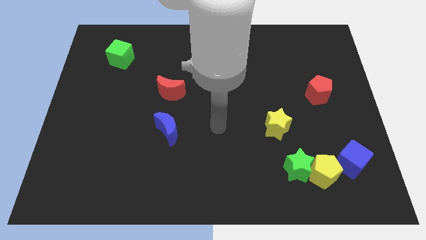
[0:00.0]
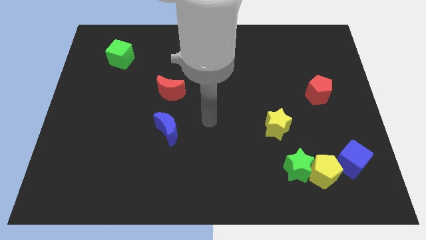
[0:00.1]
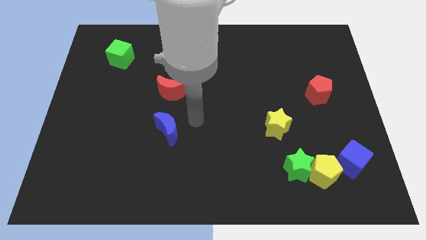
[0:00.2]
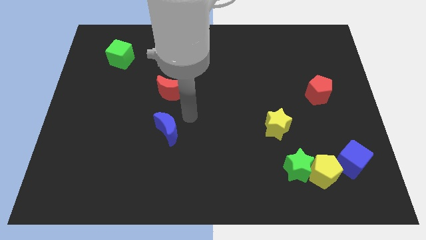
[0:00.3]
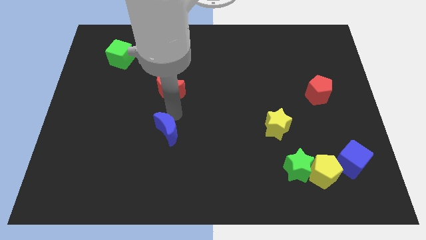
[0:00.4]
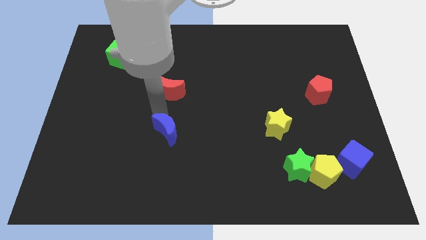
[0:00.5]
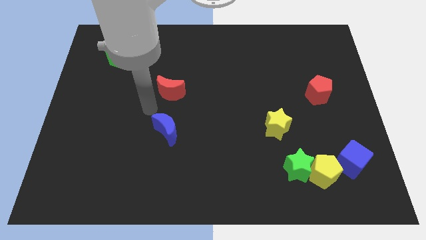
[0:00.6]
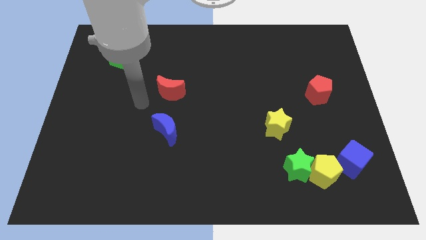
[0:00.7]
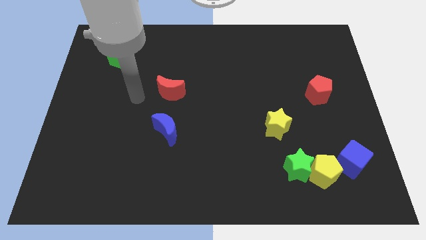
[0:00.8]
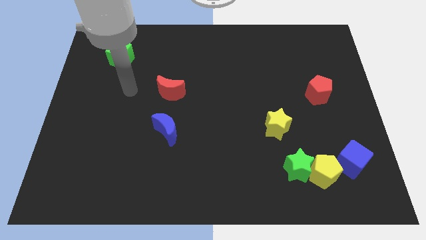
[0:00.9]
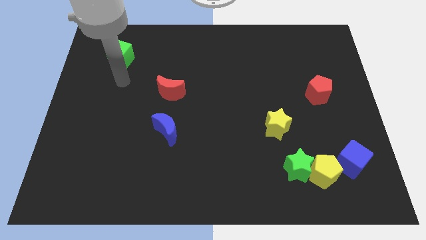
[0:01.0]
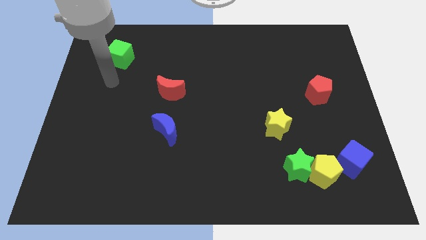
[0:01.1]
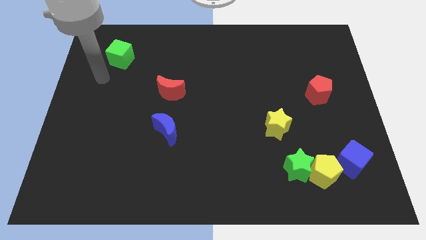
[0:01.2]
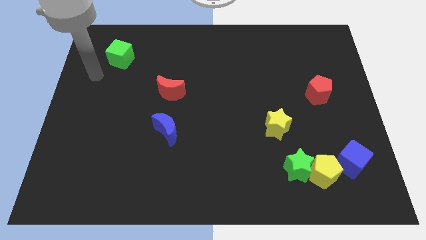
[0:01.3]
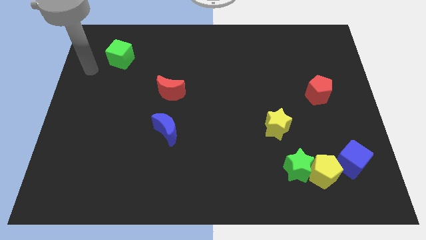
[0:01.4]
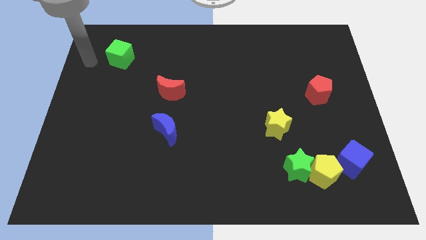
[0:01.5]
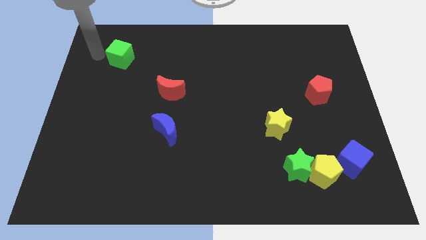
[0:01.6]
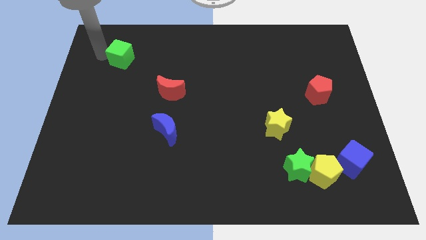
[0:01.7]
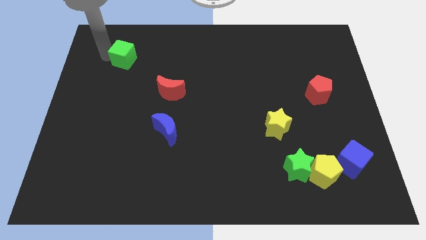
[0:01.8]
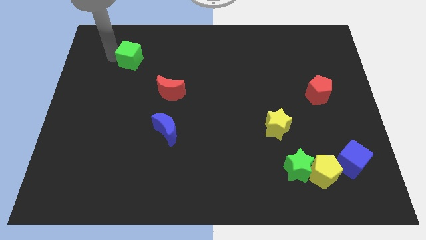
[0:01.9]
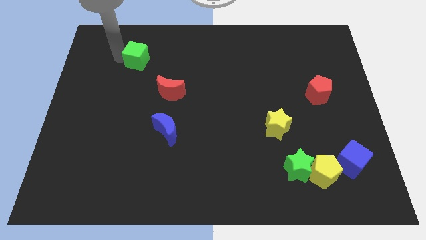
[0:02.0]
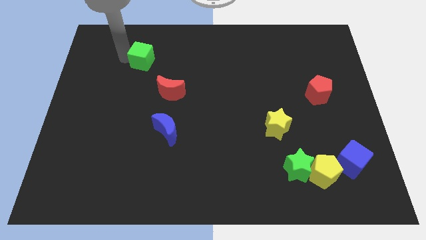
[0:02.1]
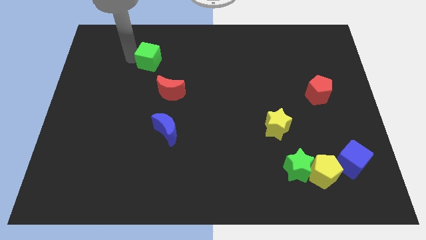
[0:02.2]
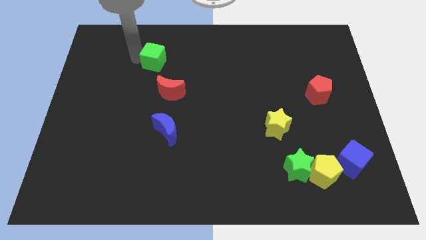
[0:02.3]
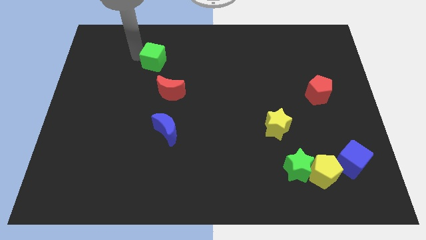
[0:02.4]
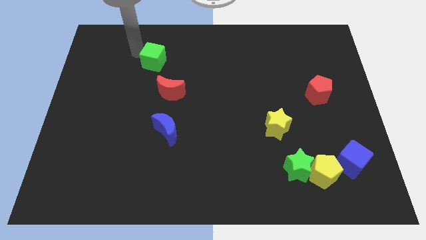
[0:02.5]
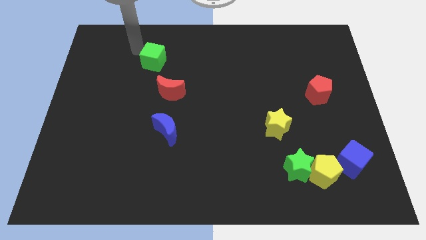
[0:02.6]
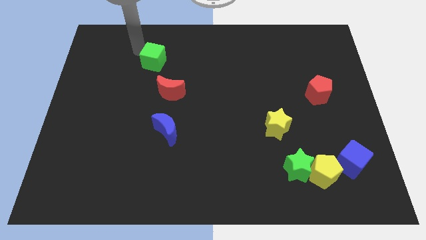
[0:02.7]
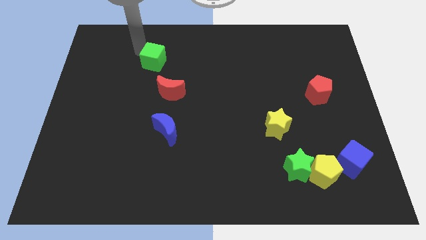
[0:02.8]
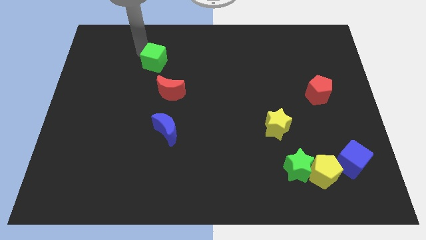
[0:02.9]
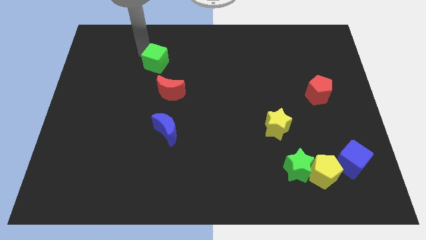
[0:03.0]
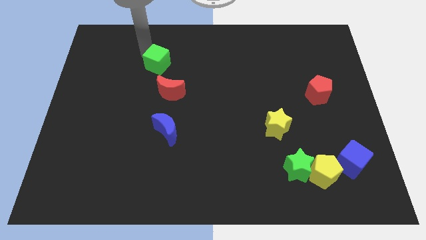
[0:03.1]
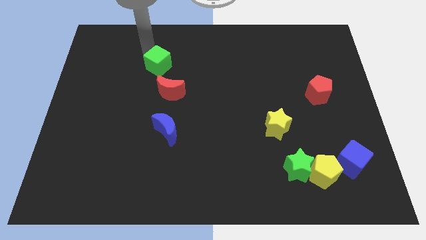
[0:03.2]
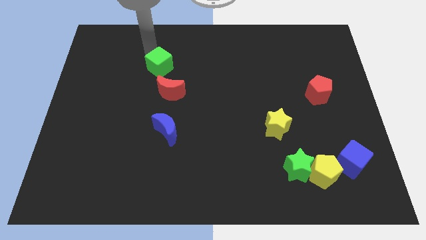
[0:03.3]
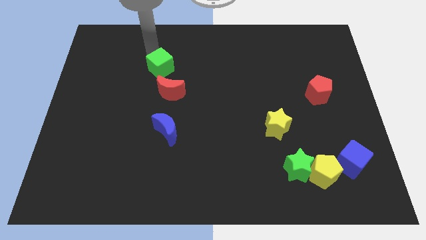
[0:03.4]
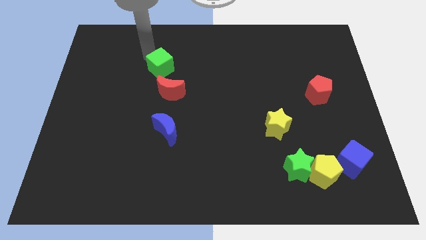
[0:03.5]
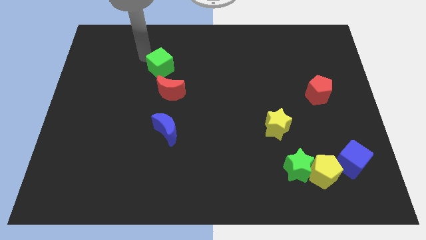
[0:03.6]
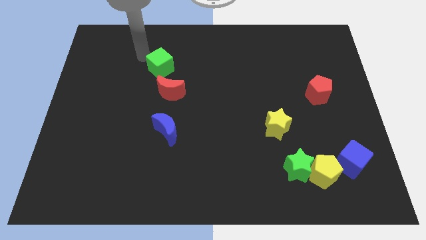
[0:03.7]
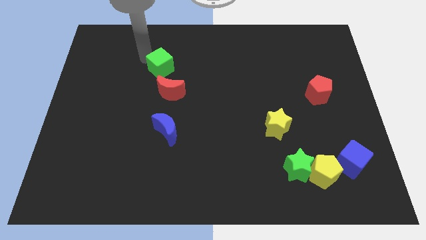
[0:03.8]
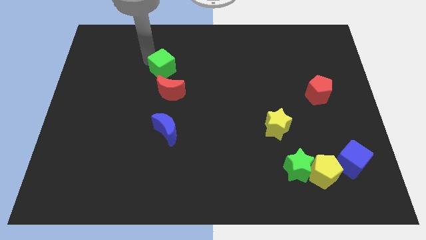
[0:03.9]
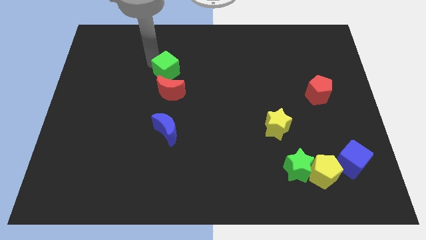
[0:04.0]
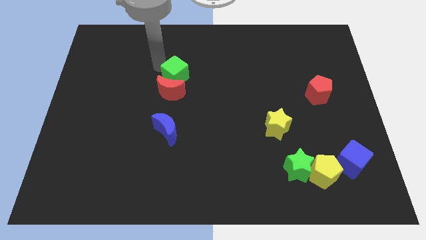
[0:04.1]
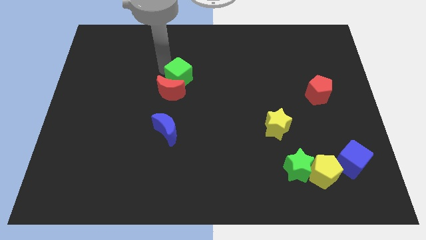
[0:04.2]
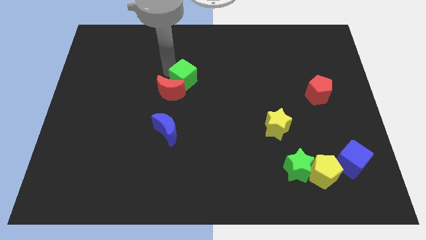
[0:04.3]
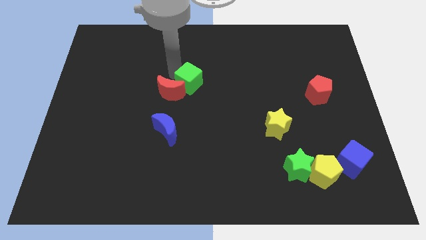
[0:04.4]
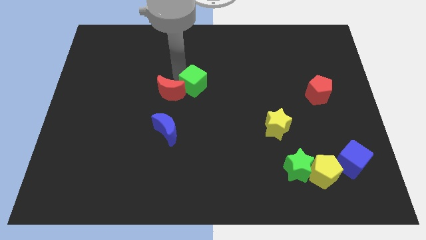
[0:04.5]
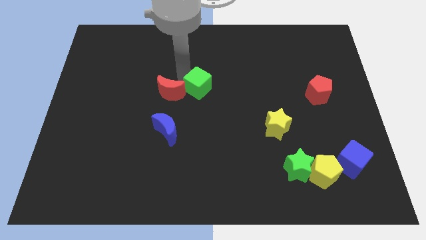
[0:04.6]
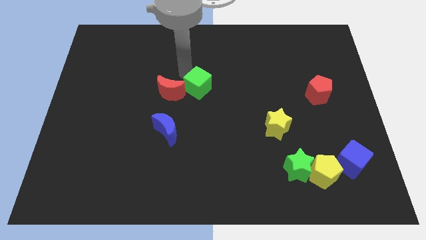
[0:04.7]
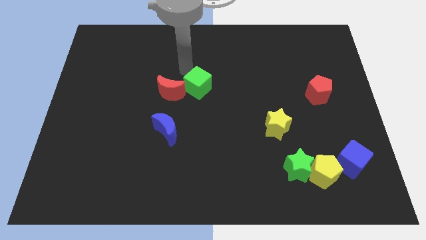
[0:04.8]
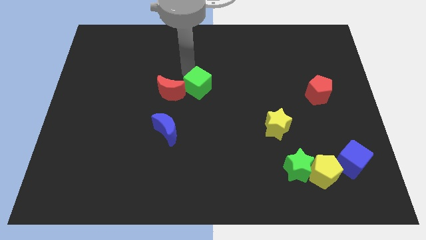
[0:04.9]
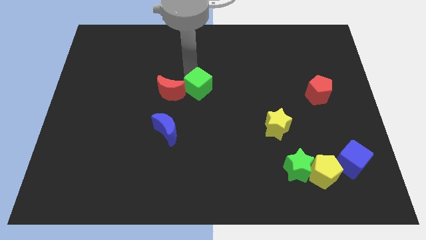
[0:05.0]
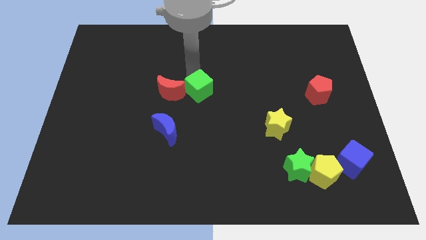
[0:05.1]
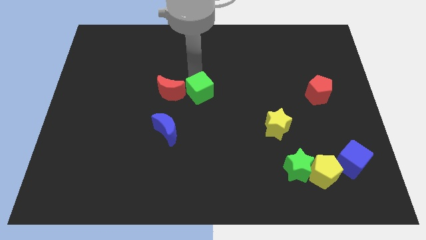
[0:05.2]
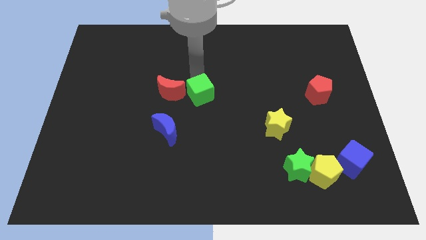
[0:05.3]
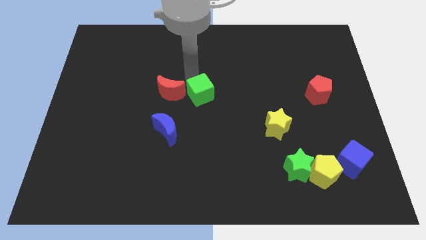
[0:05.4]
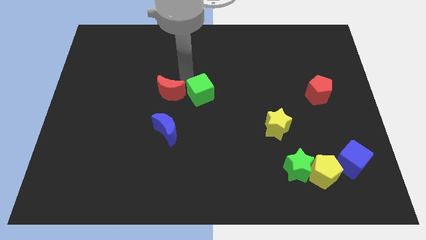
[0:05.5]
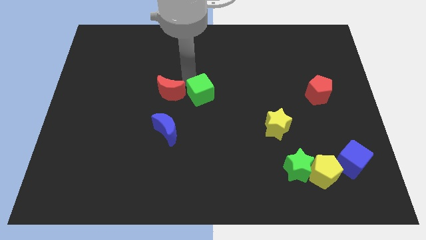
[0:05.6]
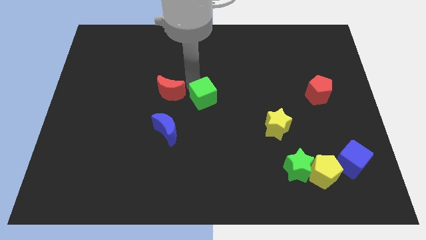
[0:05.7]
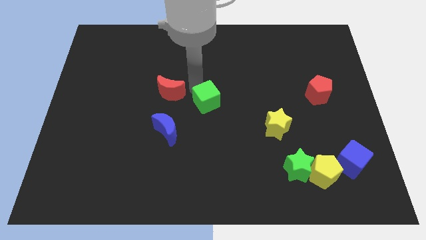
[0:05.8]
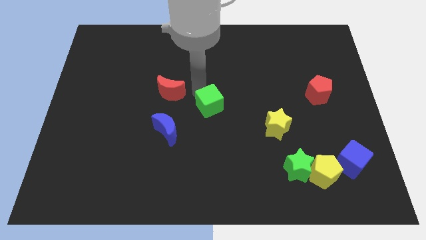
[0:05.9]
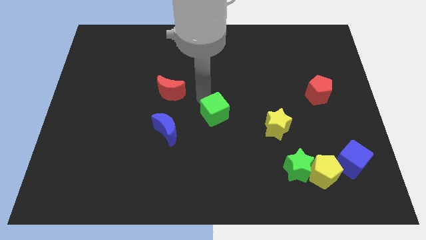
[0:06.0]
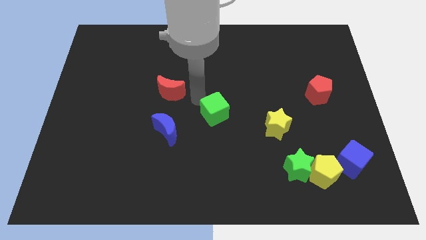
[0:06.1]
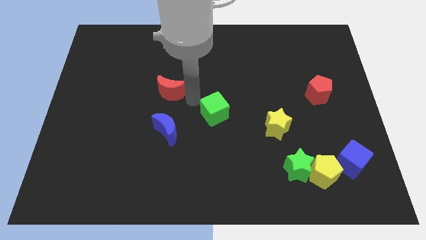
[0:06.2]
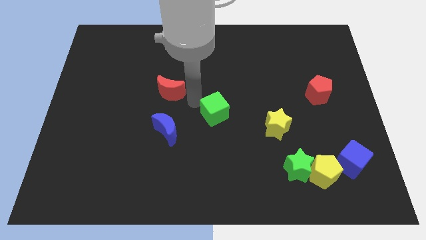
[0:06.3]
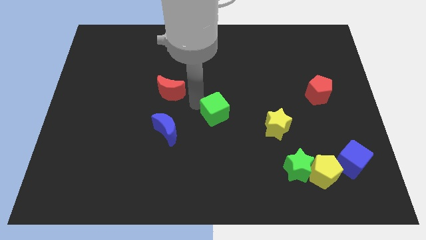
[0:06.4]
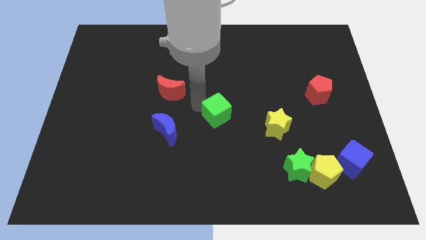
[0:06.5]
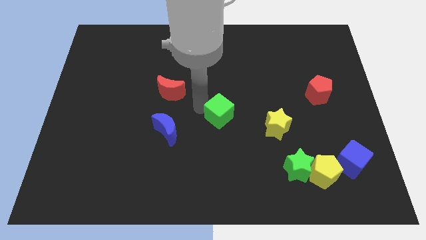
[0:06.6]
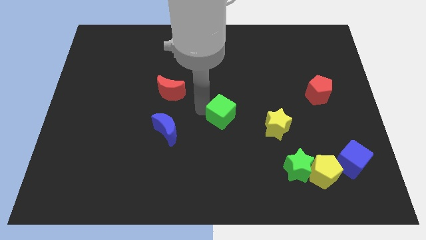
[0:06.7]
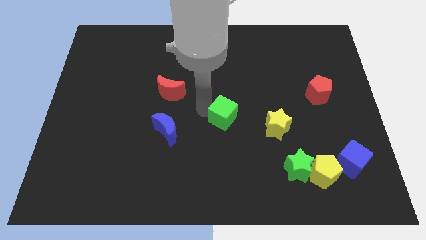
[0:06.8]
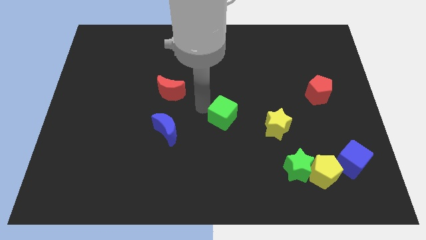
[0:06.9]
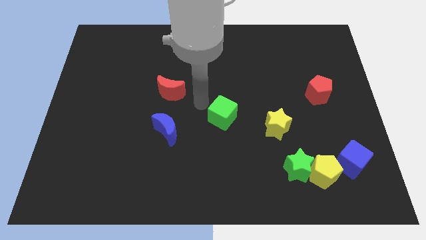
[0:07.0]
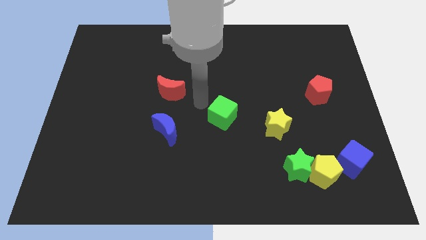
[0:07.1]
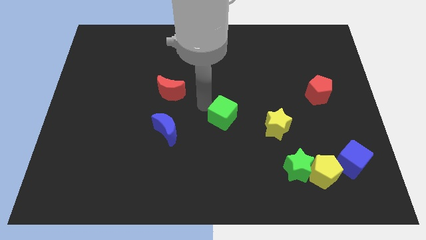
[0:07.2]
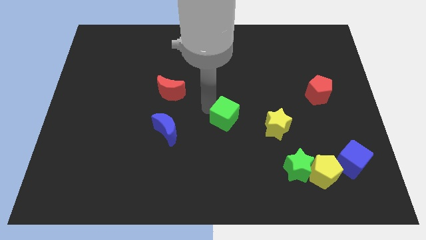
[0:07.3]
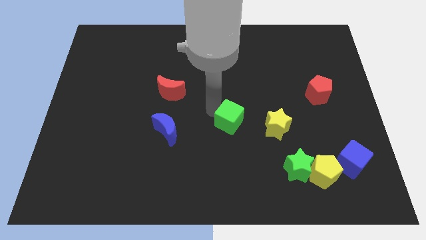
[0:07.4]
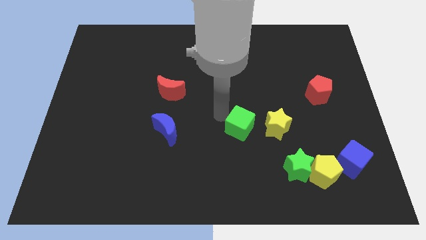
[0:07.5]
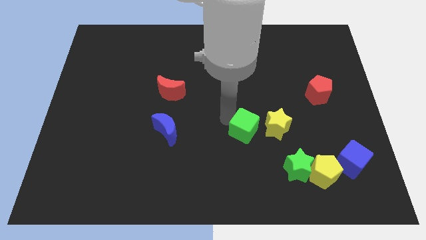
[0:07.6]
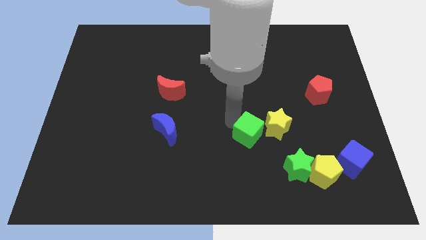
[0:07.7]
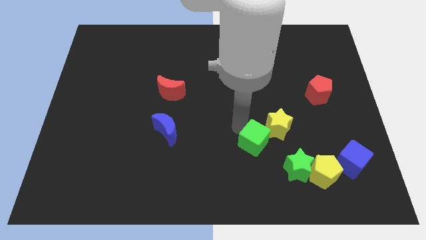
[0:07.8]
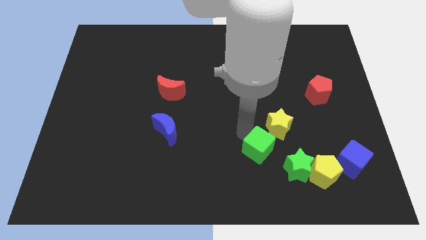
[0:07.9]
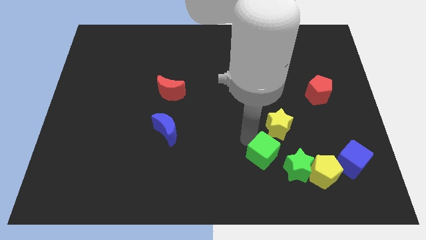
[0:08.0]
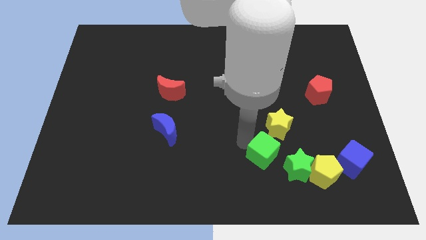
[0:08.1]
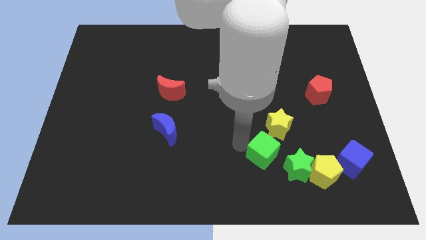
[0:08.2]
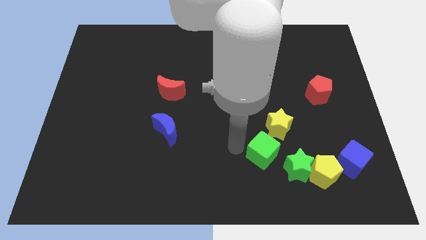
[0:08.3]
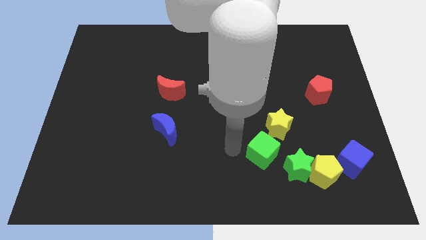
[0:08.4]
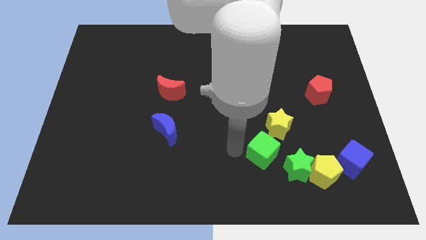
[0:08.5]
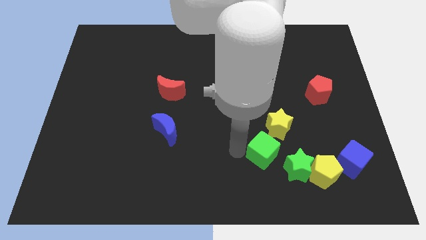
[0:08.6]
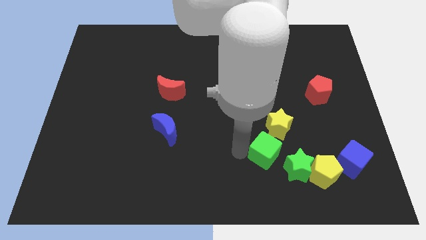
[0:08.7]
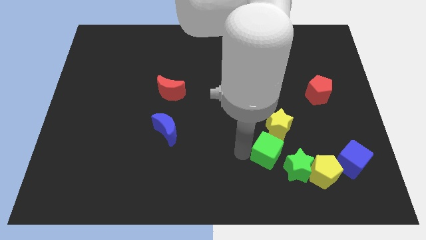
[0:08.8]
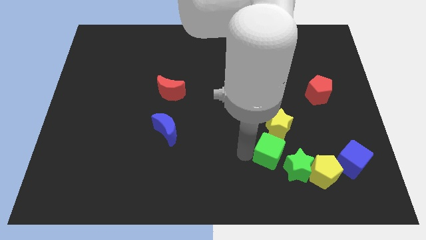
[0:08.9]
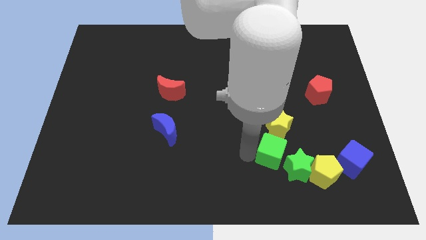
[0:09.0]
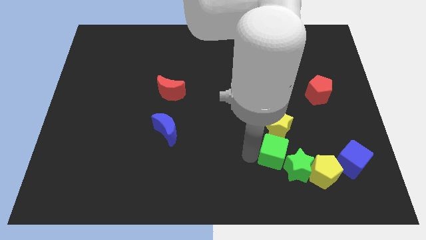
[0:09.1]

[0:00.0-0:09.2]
push the green cube towards the green star
